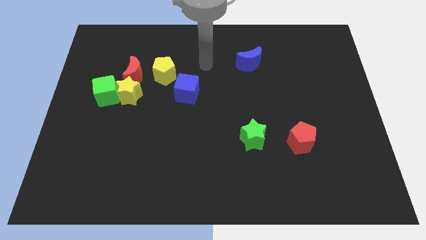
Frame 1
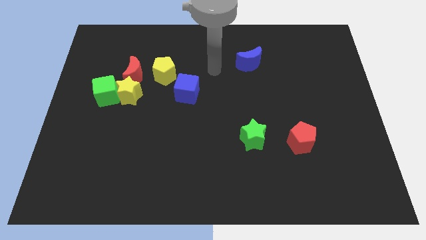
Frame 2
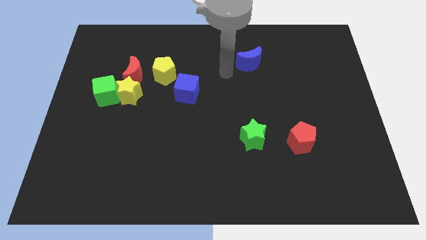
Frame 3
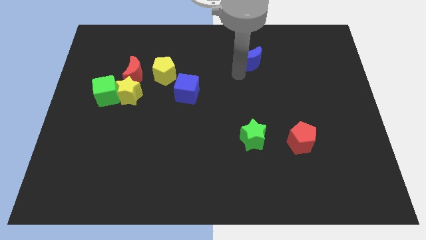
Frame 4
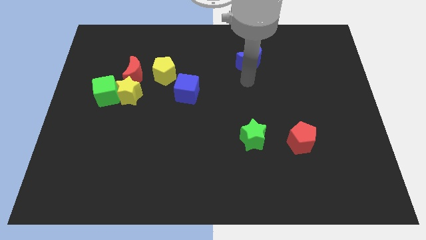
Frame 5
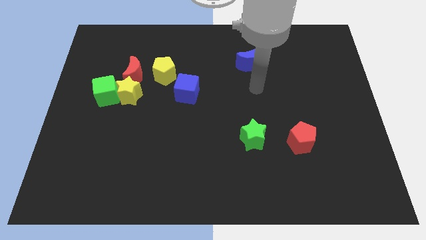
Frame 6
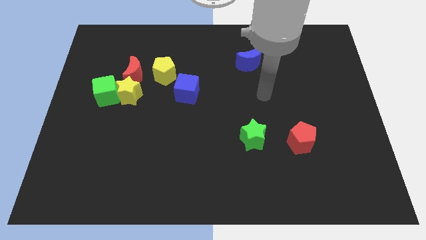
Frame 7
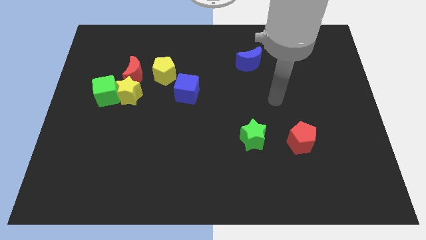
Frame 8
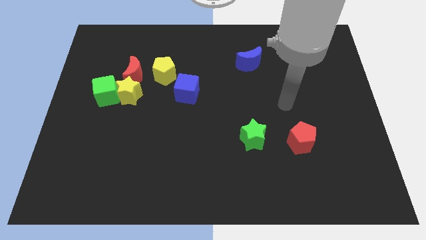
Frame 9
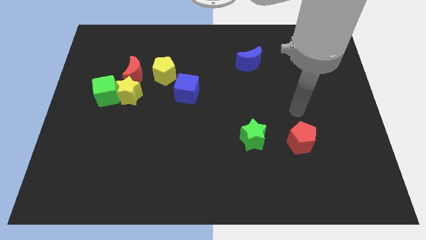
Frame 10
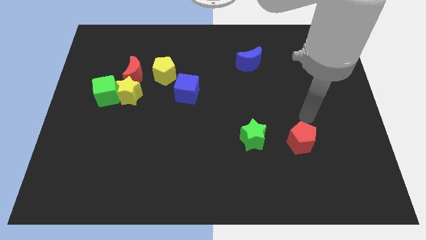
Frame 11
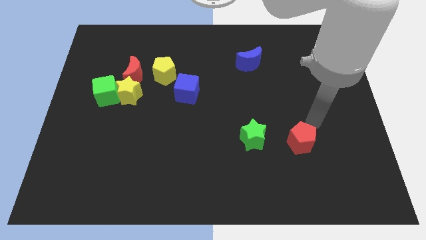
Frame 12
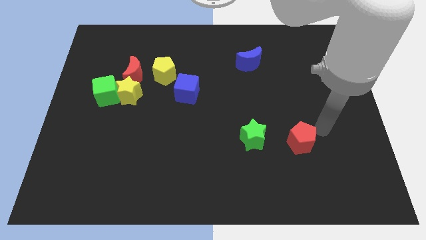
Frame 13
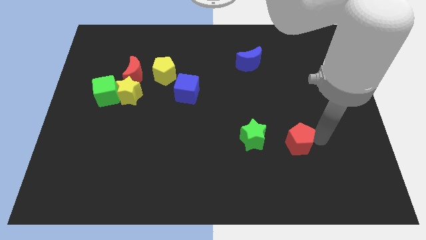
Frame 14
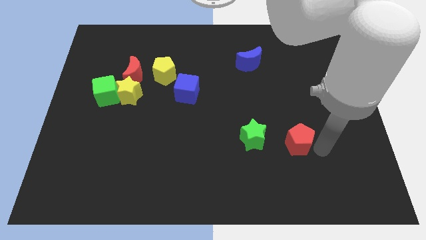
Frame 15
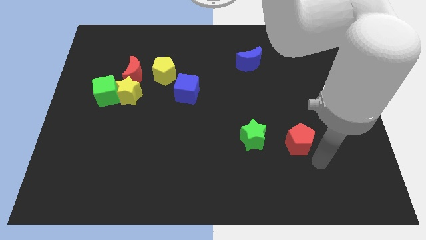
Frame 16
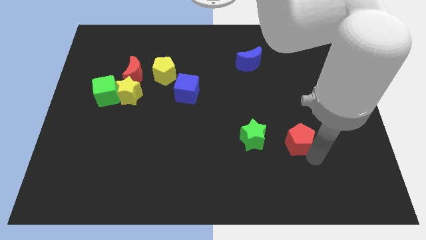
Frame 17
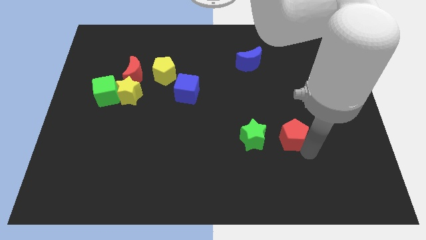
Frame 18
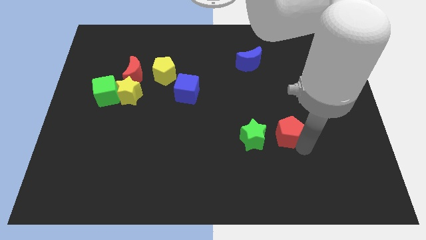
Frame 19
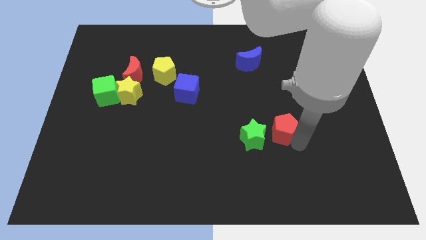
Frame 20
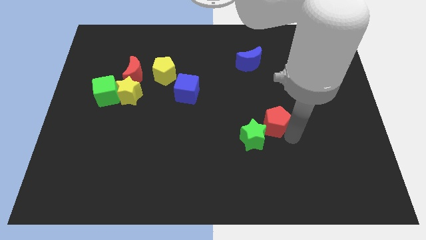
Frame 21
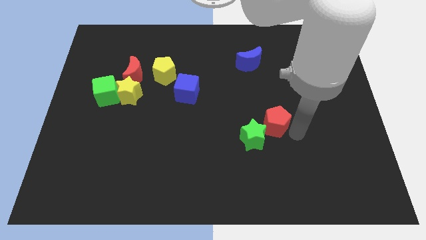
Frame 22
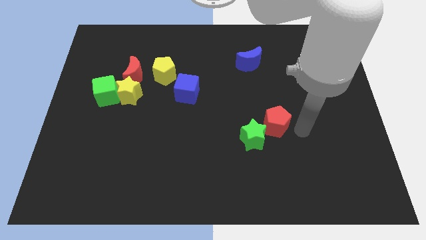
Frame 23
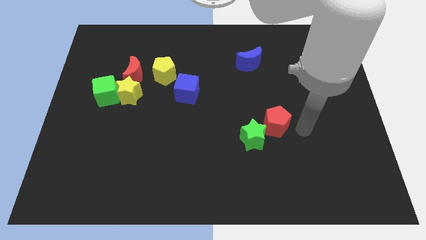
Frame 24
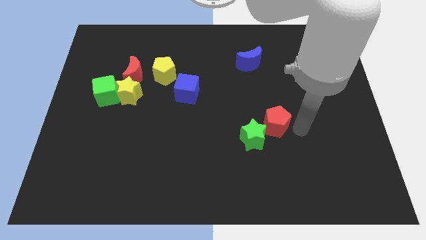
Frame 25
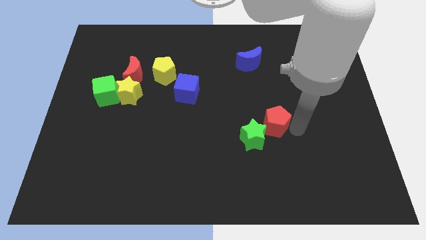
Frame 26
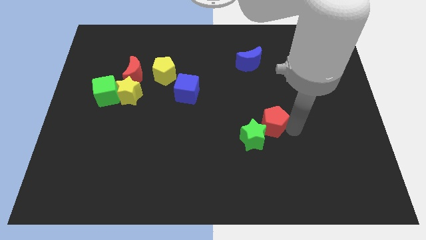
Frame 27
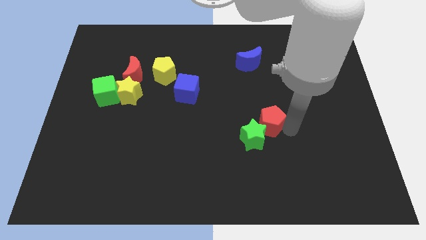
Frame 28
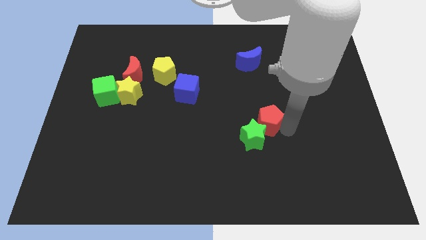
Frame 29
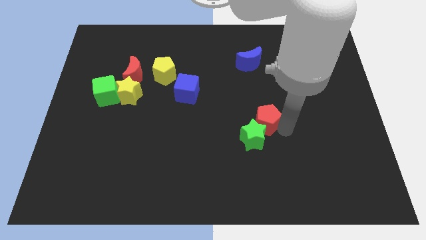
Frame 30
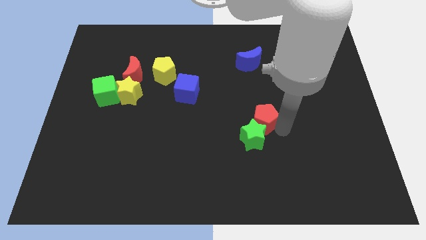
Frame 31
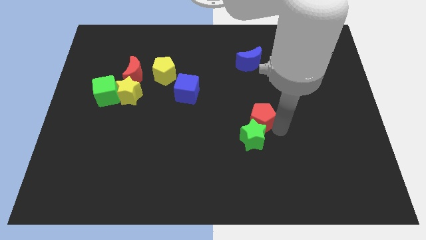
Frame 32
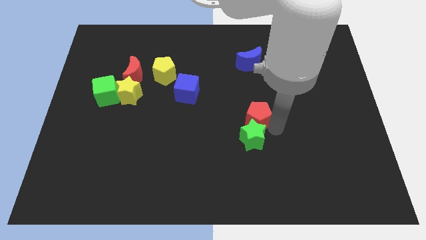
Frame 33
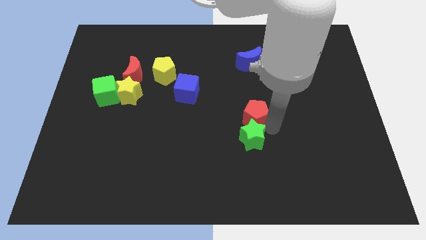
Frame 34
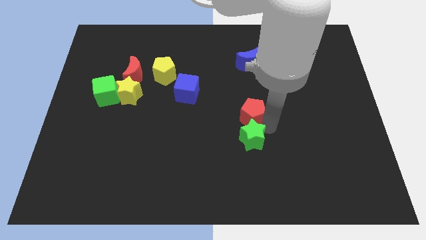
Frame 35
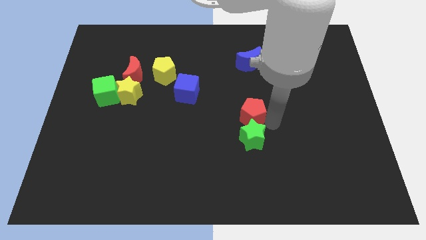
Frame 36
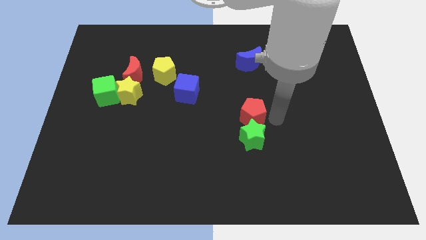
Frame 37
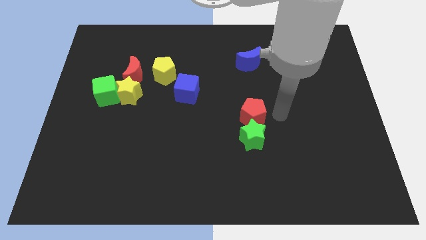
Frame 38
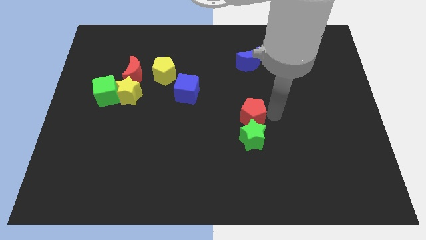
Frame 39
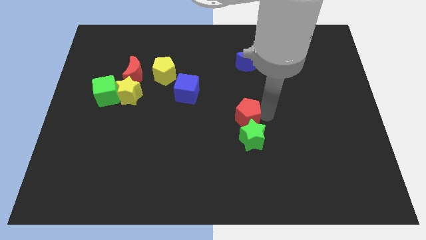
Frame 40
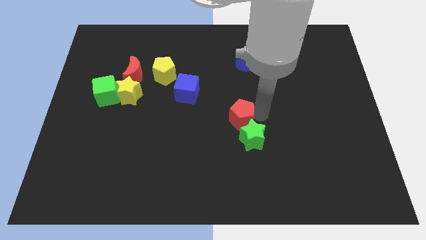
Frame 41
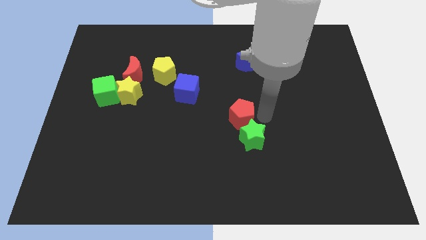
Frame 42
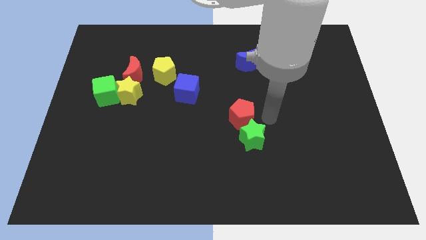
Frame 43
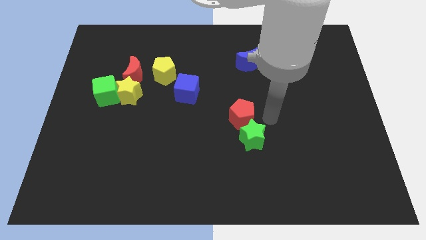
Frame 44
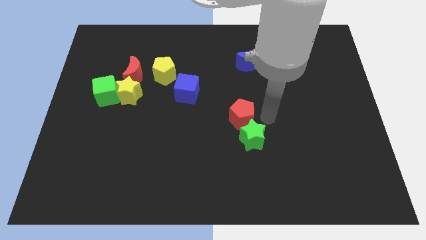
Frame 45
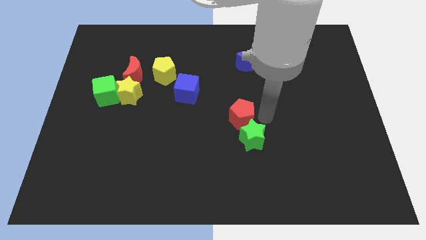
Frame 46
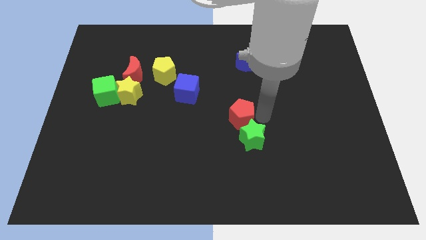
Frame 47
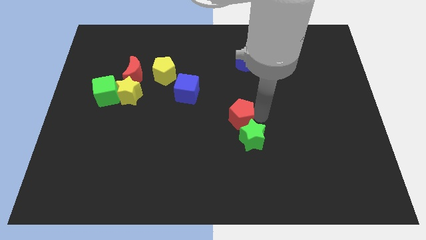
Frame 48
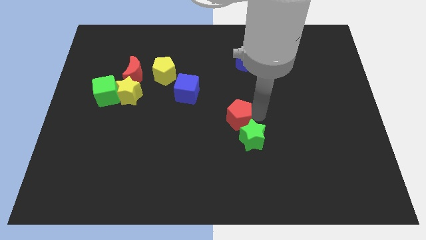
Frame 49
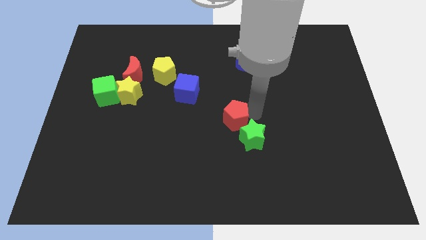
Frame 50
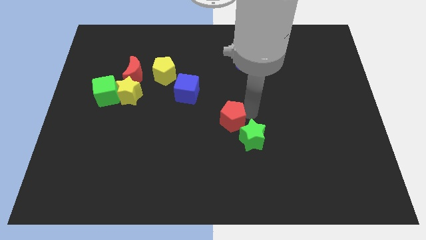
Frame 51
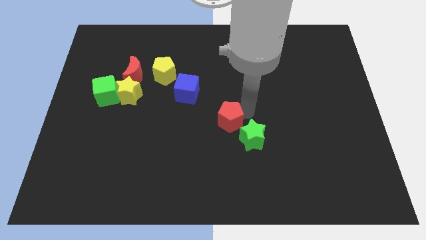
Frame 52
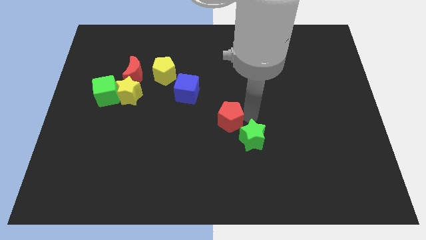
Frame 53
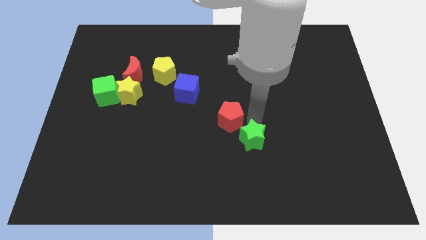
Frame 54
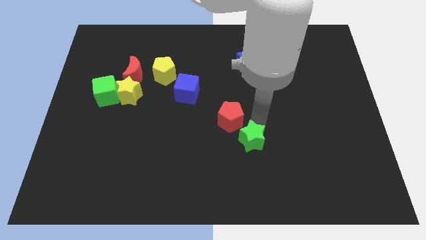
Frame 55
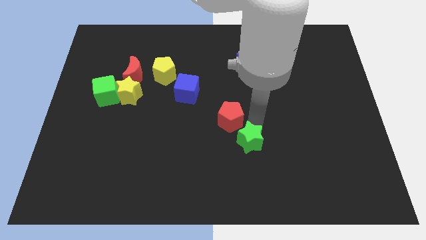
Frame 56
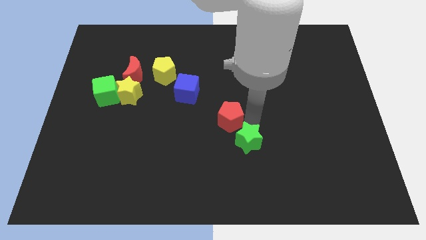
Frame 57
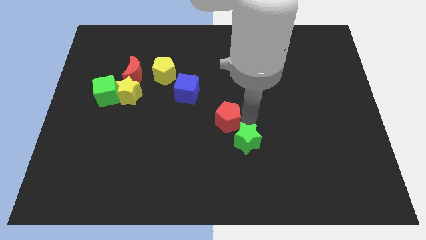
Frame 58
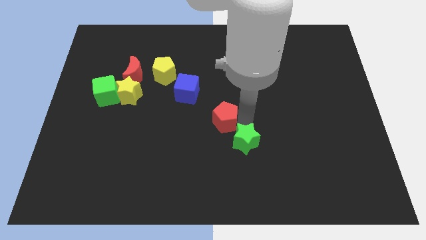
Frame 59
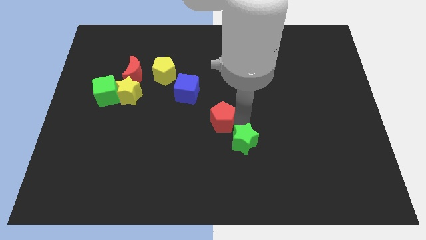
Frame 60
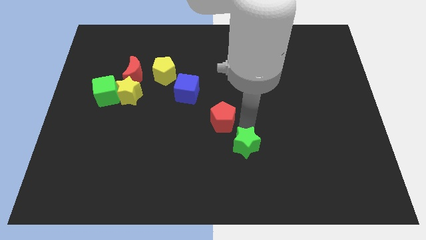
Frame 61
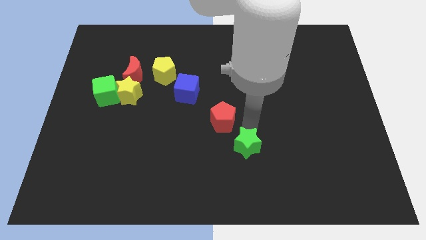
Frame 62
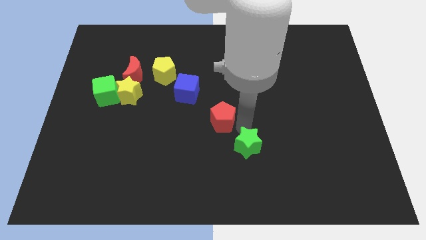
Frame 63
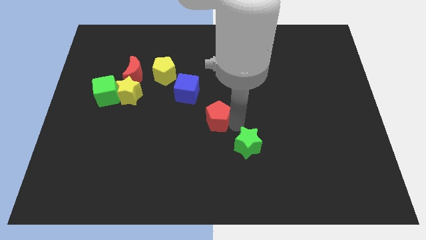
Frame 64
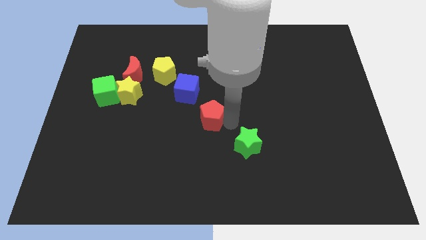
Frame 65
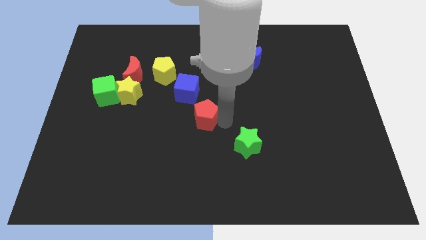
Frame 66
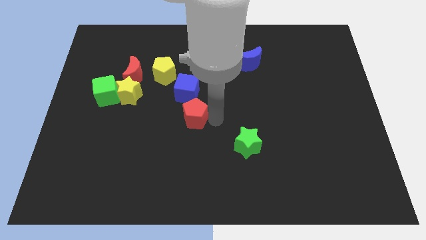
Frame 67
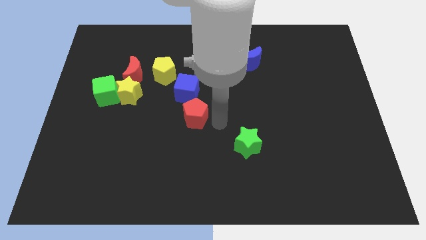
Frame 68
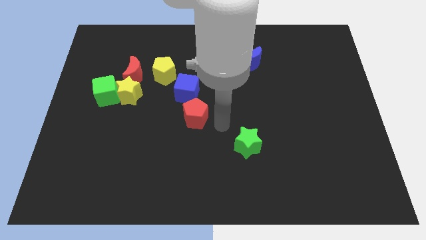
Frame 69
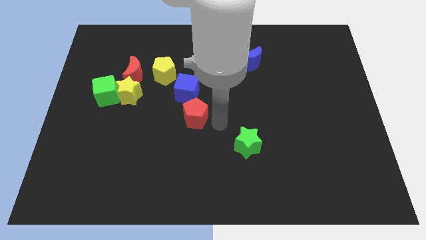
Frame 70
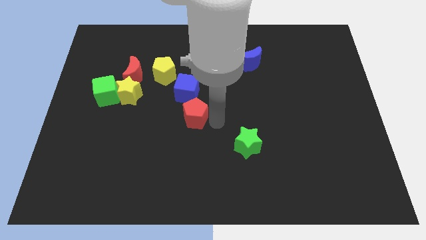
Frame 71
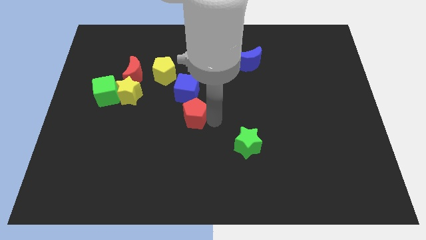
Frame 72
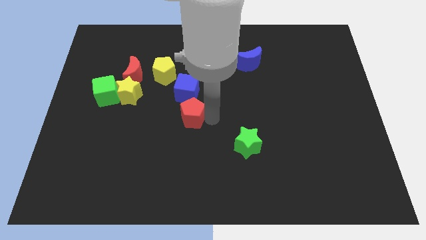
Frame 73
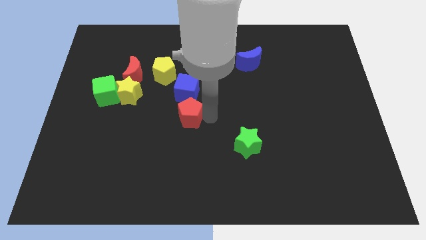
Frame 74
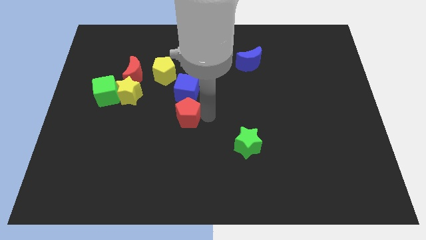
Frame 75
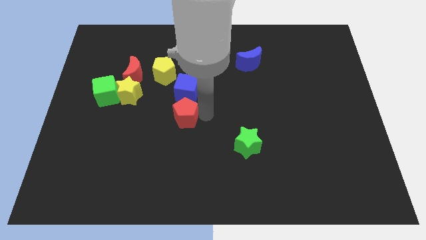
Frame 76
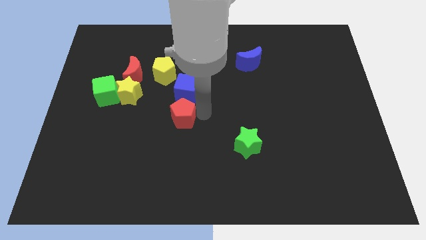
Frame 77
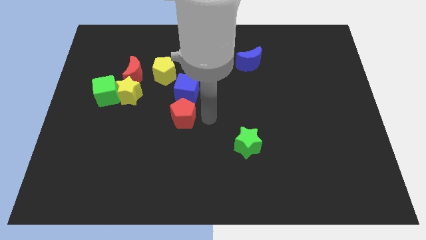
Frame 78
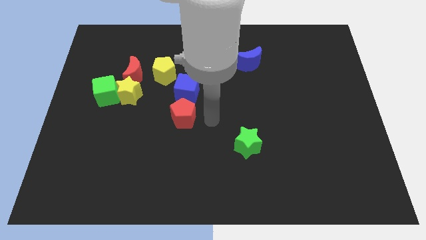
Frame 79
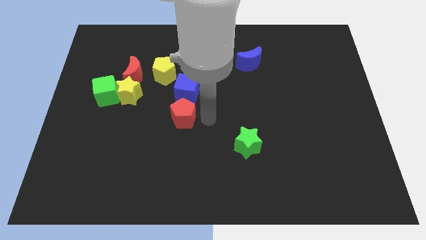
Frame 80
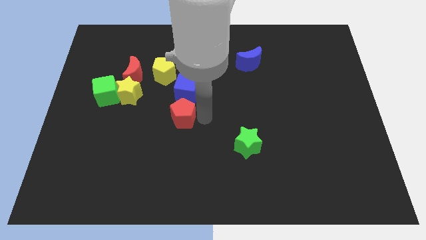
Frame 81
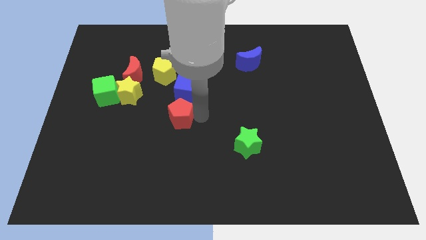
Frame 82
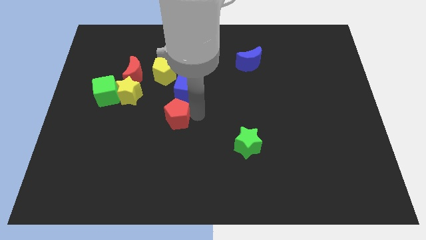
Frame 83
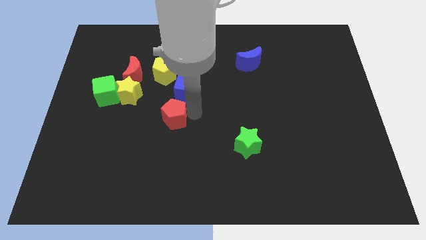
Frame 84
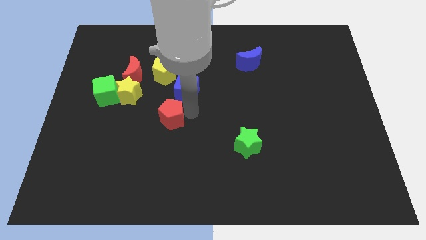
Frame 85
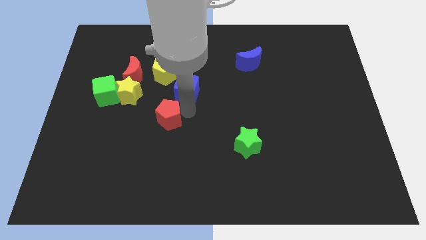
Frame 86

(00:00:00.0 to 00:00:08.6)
put the red pentagon diagonally down and to the right of the yellow star
